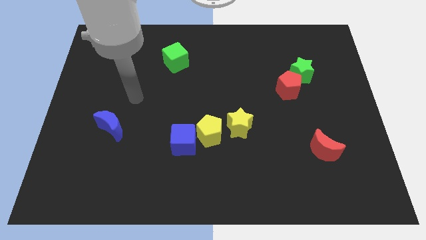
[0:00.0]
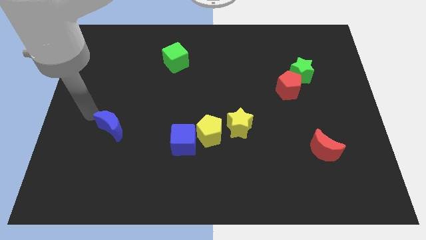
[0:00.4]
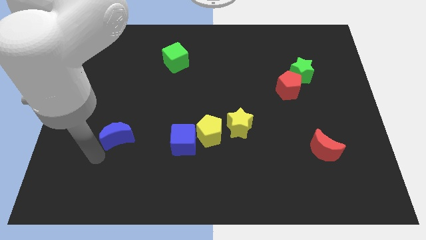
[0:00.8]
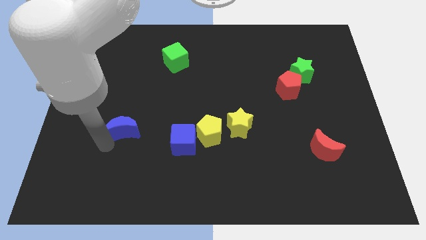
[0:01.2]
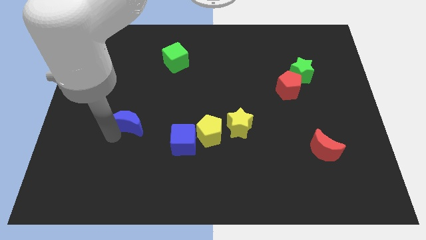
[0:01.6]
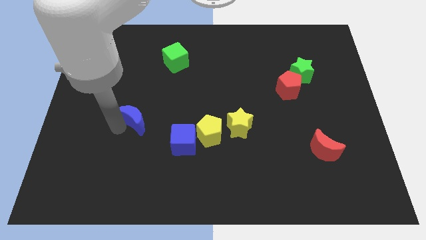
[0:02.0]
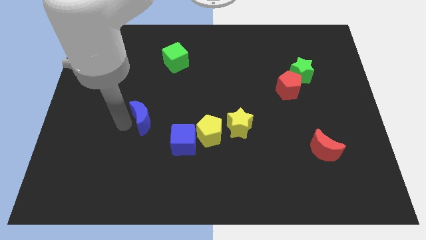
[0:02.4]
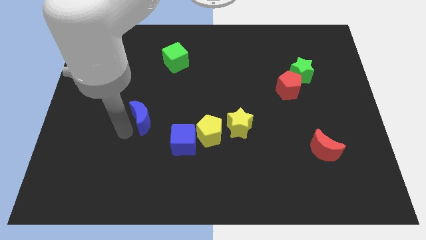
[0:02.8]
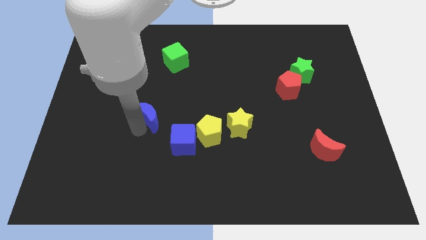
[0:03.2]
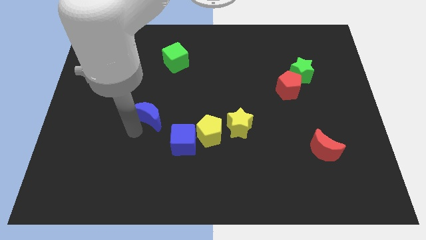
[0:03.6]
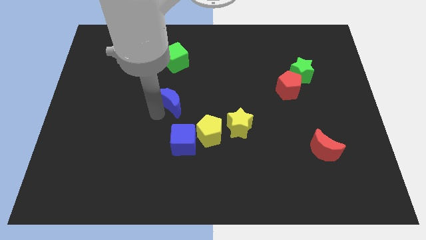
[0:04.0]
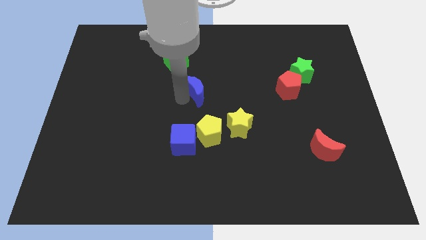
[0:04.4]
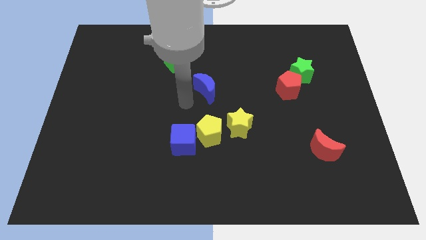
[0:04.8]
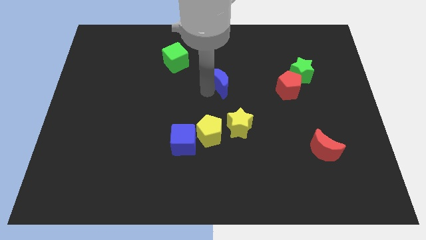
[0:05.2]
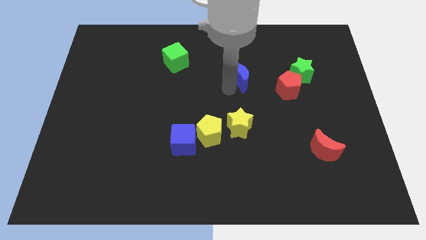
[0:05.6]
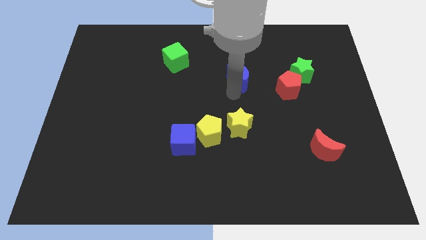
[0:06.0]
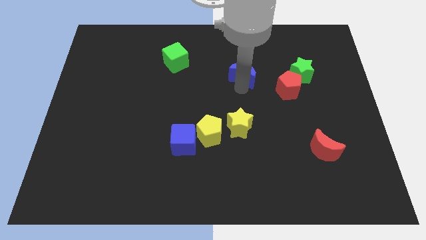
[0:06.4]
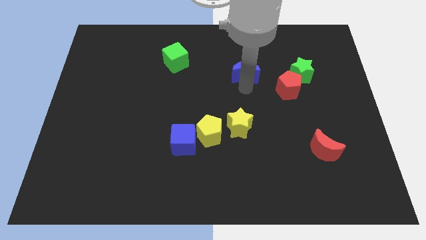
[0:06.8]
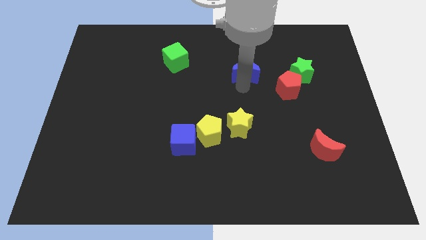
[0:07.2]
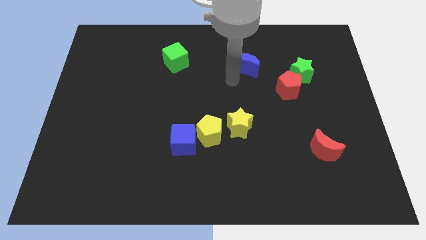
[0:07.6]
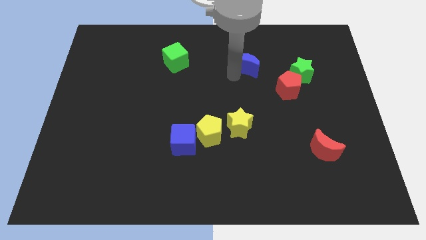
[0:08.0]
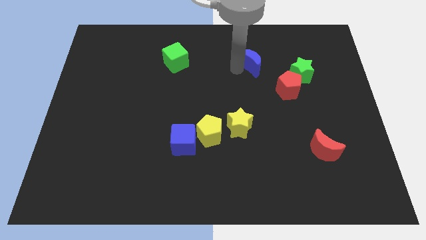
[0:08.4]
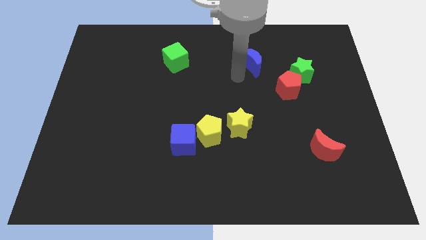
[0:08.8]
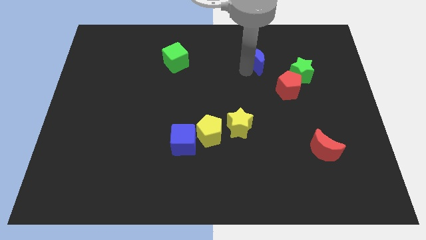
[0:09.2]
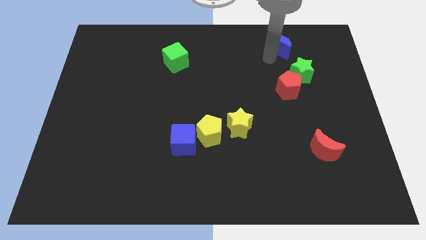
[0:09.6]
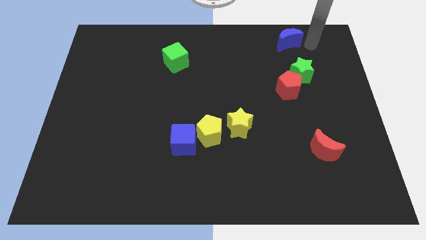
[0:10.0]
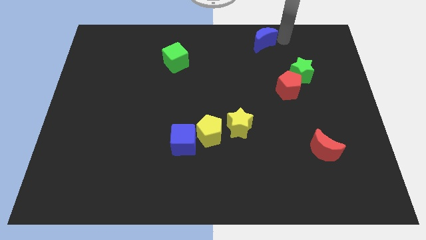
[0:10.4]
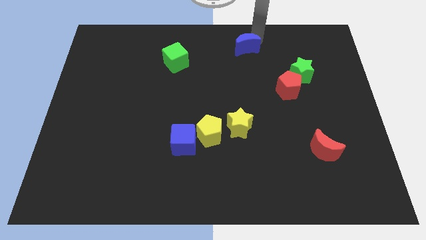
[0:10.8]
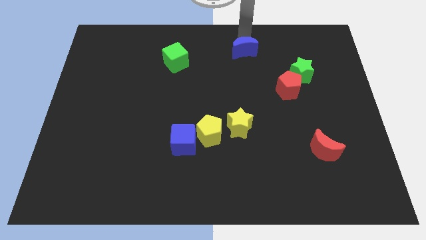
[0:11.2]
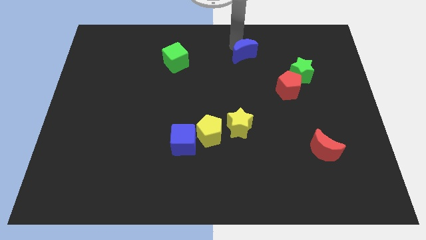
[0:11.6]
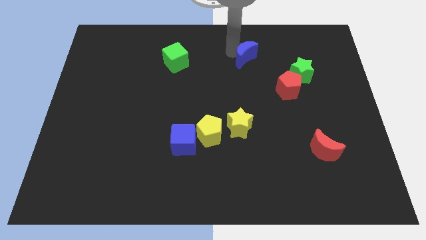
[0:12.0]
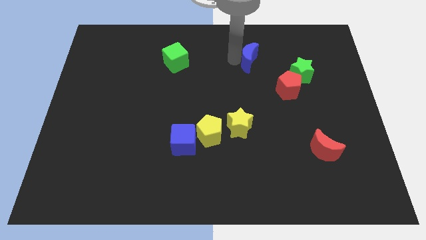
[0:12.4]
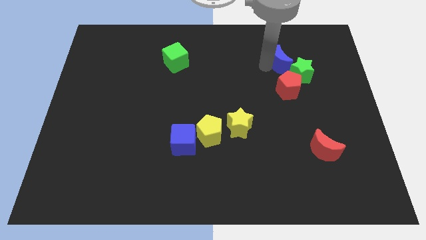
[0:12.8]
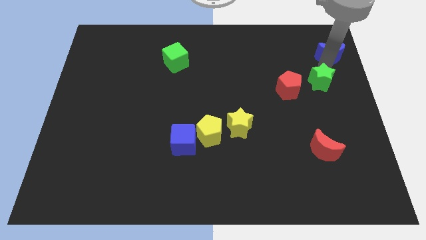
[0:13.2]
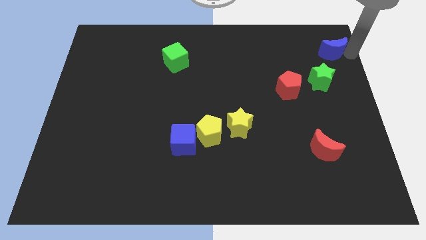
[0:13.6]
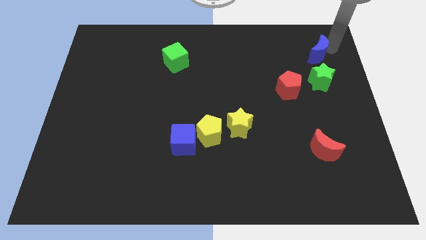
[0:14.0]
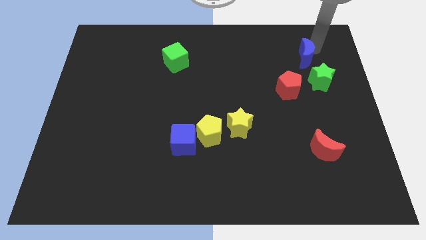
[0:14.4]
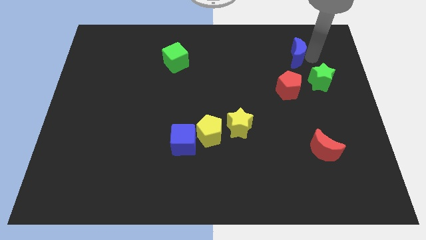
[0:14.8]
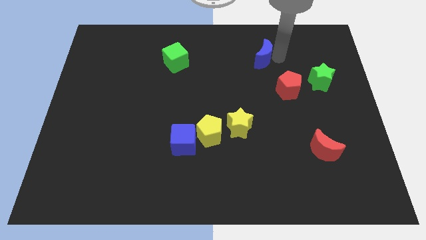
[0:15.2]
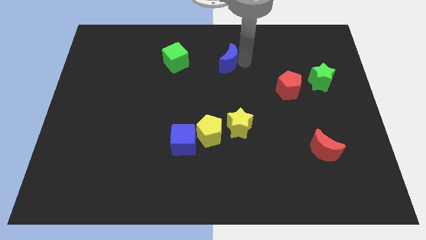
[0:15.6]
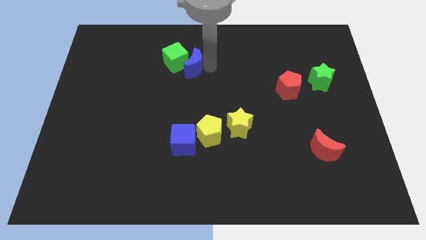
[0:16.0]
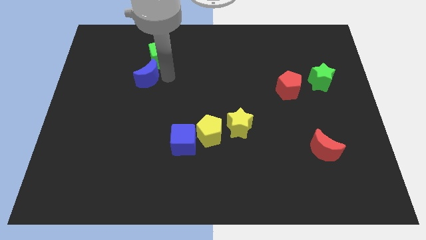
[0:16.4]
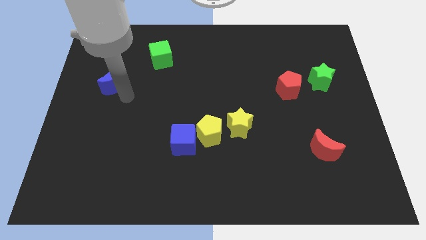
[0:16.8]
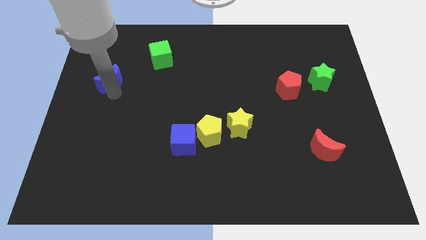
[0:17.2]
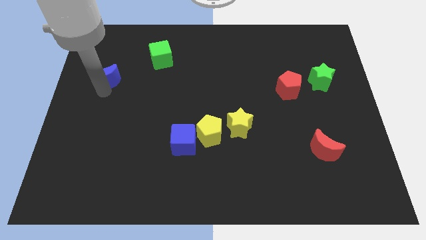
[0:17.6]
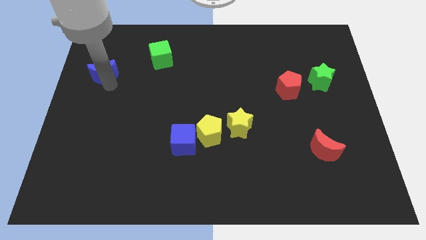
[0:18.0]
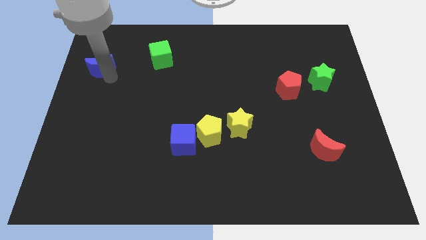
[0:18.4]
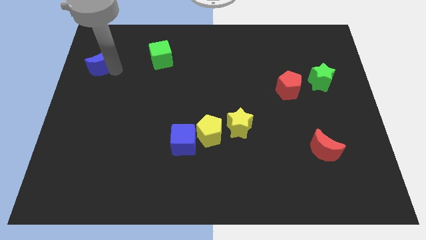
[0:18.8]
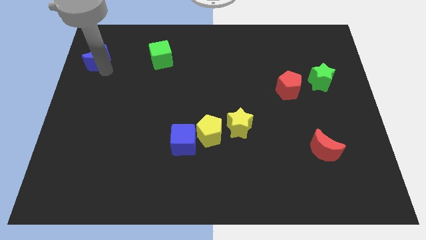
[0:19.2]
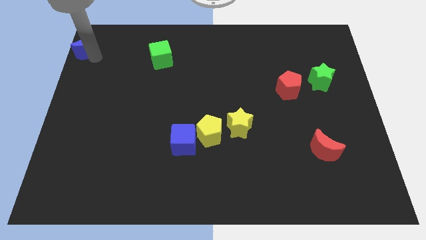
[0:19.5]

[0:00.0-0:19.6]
push the blue moon to the top left corner

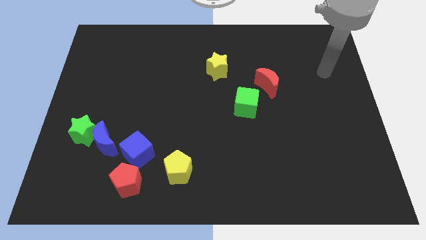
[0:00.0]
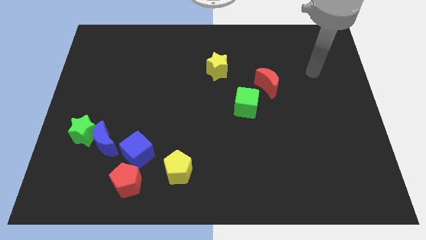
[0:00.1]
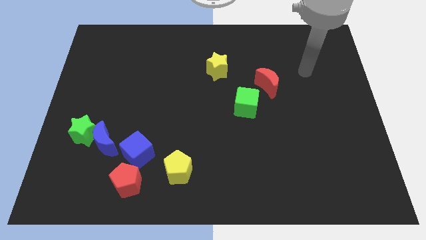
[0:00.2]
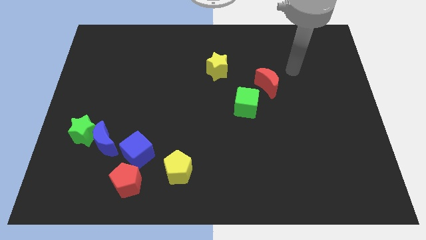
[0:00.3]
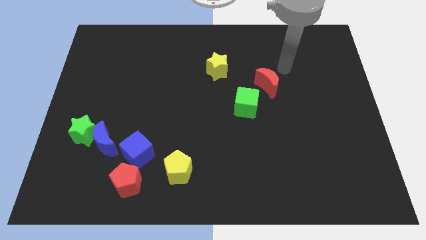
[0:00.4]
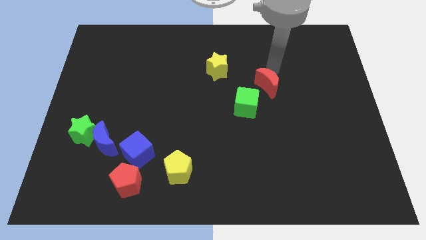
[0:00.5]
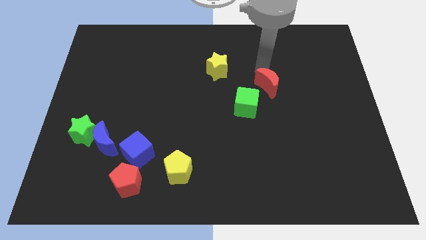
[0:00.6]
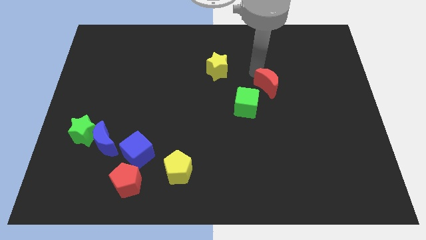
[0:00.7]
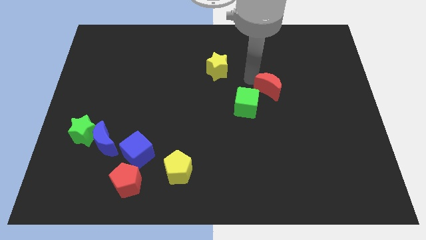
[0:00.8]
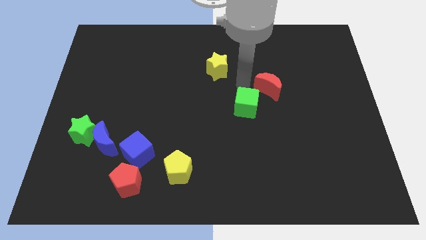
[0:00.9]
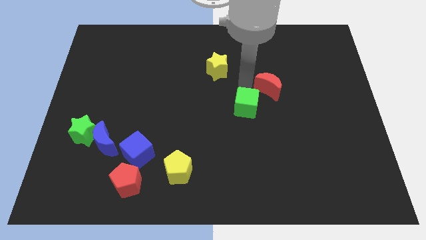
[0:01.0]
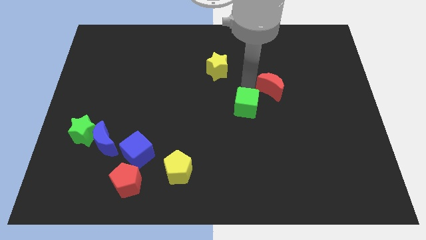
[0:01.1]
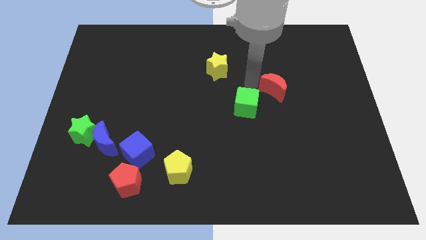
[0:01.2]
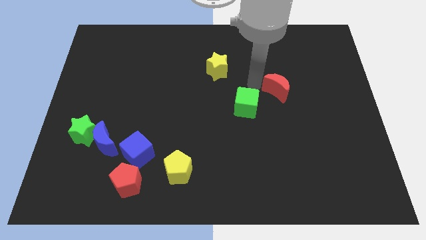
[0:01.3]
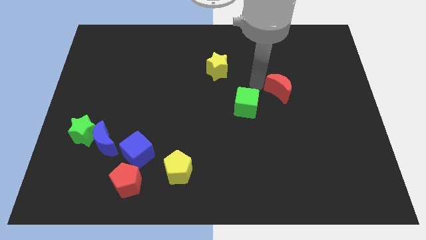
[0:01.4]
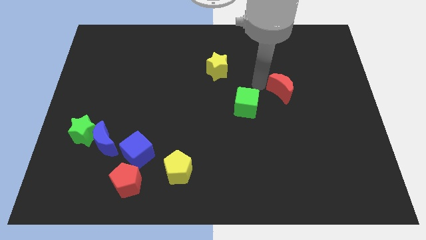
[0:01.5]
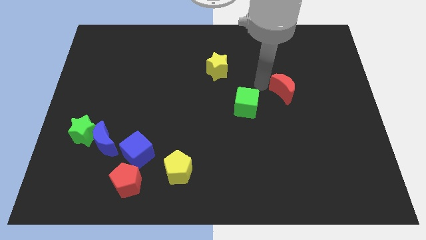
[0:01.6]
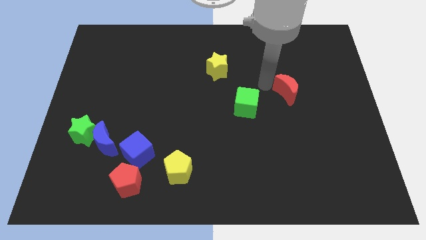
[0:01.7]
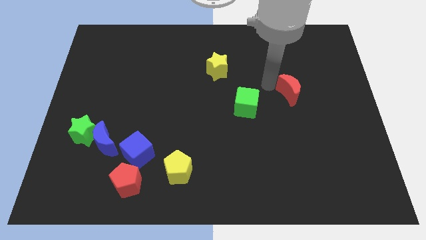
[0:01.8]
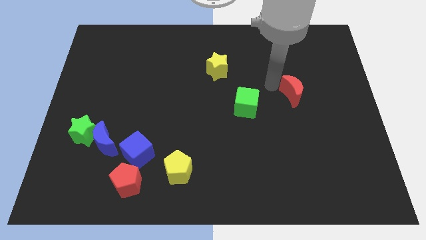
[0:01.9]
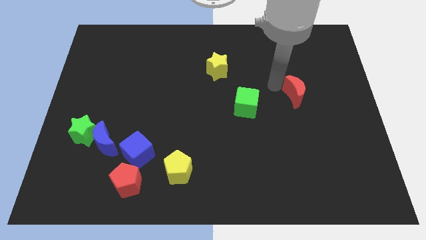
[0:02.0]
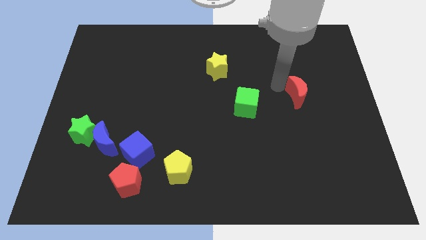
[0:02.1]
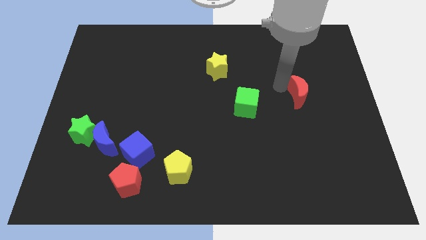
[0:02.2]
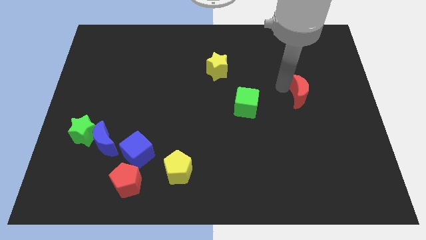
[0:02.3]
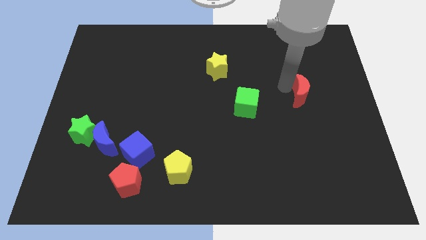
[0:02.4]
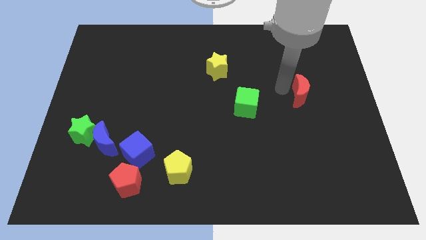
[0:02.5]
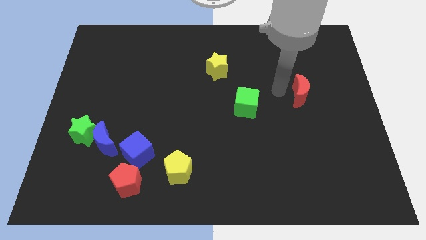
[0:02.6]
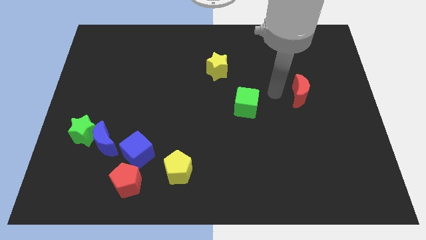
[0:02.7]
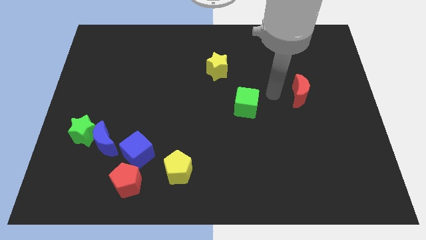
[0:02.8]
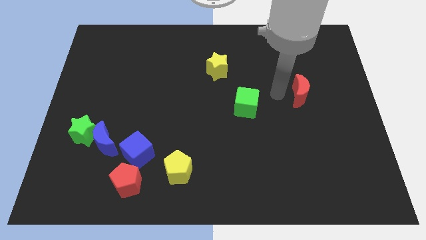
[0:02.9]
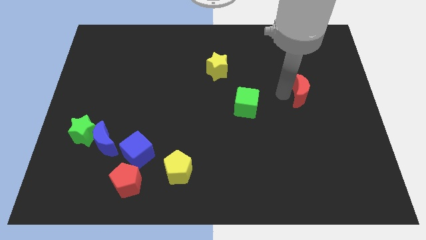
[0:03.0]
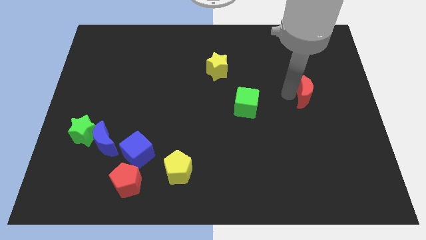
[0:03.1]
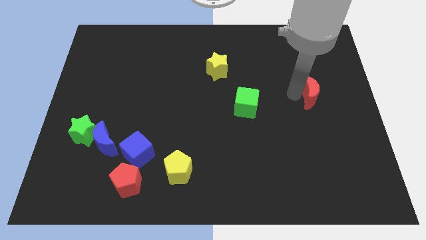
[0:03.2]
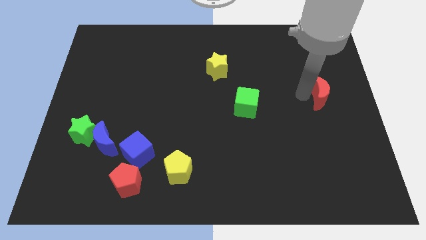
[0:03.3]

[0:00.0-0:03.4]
put the red moon to the center right
